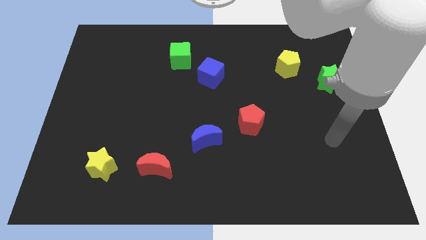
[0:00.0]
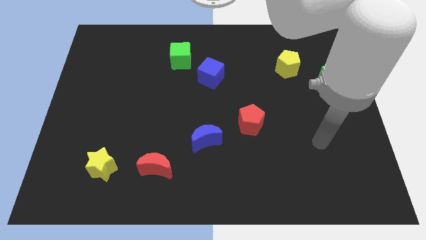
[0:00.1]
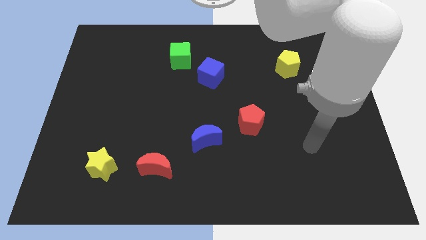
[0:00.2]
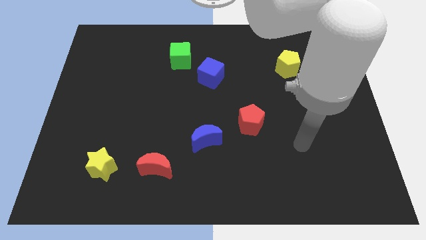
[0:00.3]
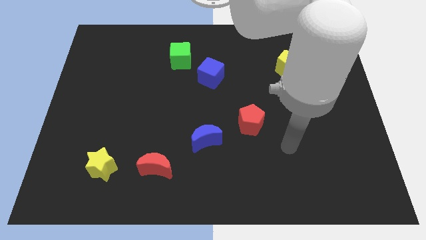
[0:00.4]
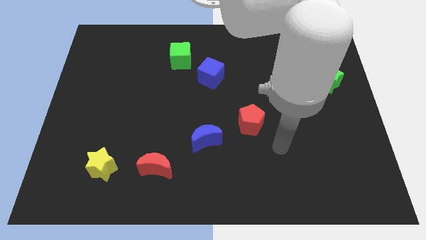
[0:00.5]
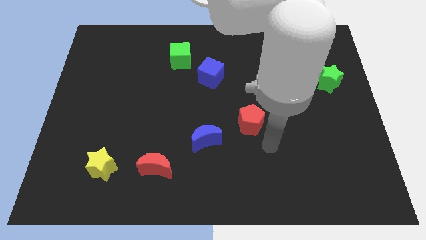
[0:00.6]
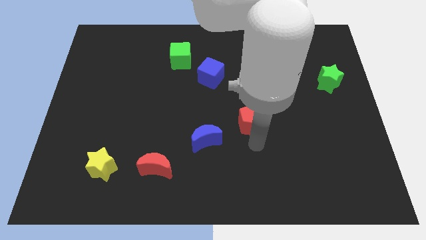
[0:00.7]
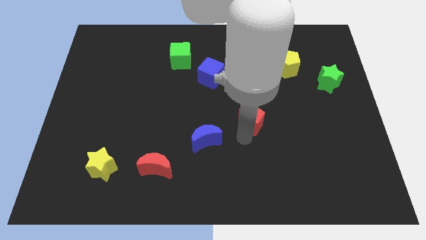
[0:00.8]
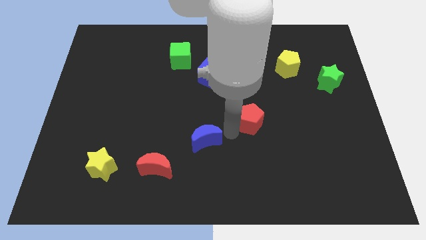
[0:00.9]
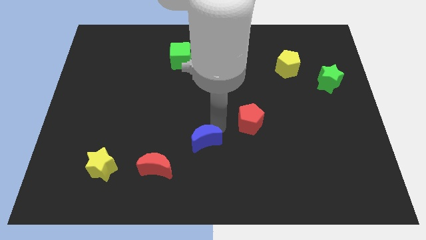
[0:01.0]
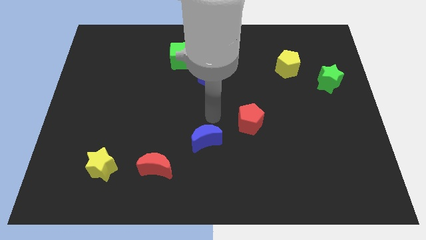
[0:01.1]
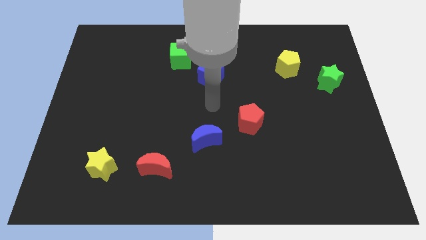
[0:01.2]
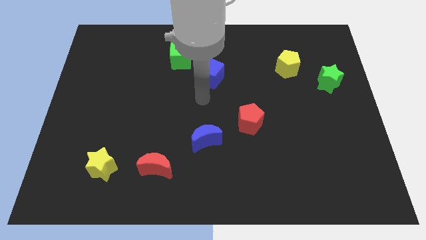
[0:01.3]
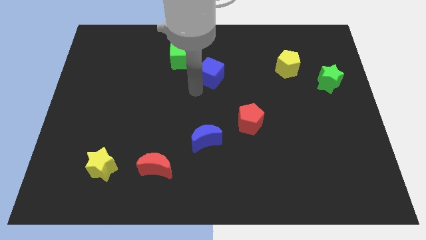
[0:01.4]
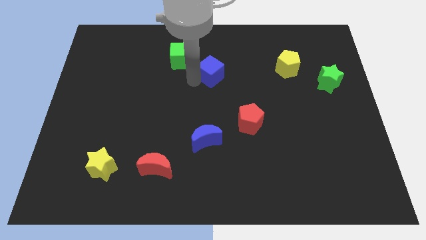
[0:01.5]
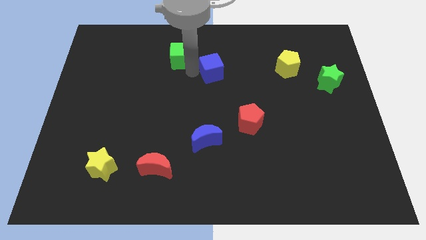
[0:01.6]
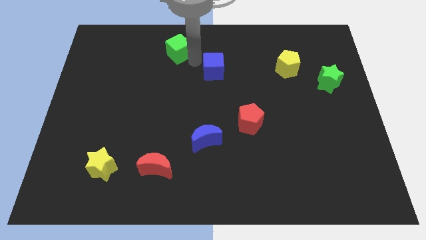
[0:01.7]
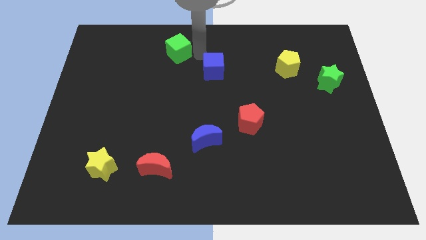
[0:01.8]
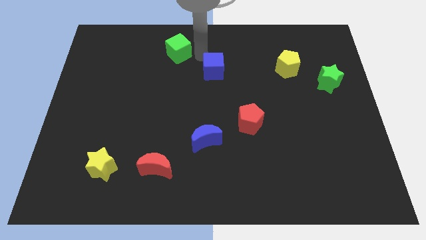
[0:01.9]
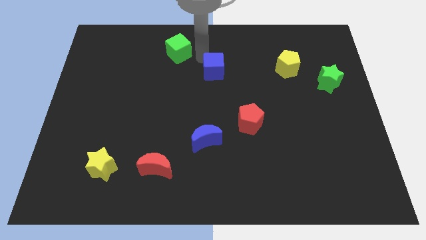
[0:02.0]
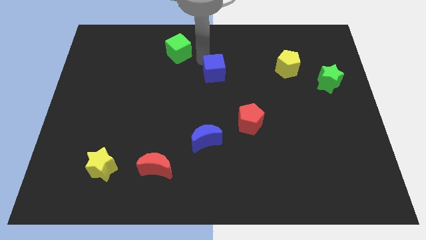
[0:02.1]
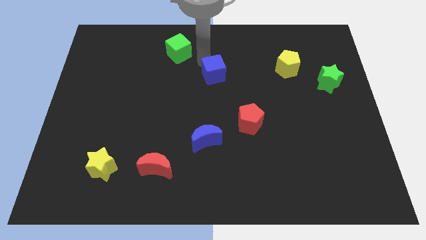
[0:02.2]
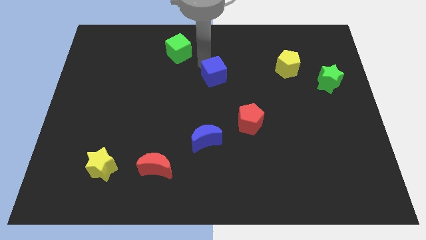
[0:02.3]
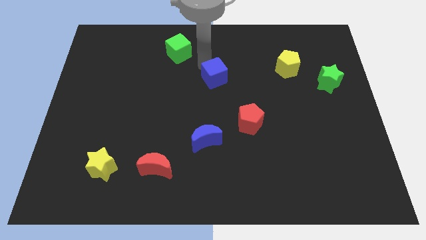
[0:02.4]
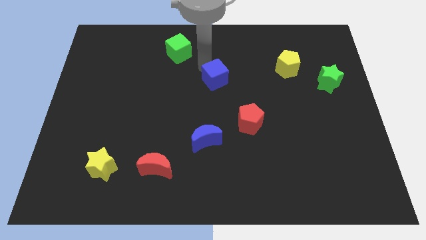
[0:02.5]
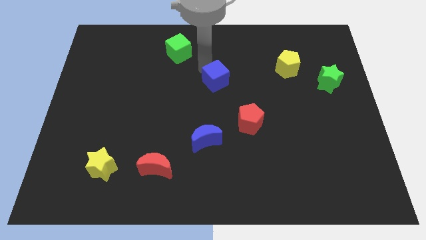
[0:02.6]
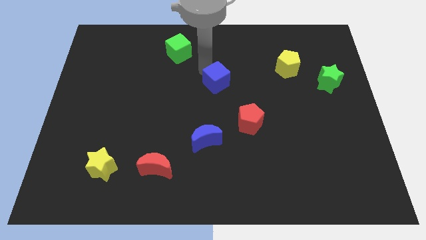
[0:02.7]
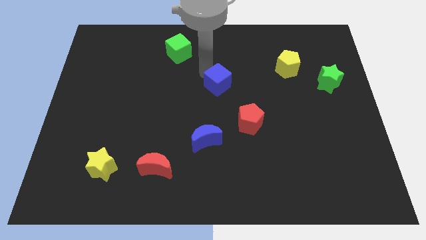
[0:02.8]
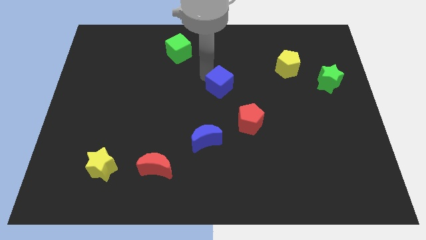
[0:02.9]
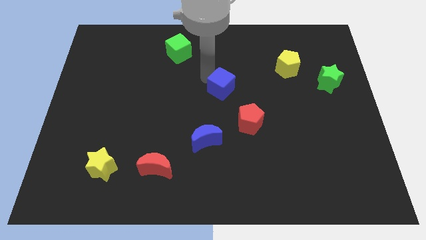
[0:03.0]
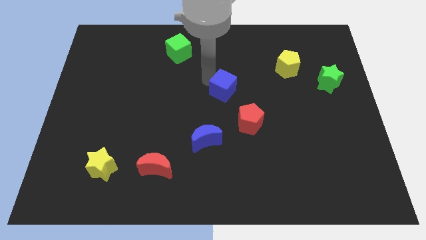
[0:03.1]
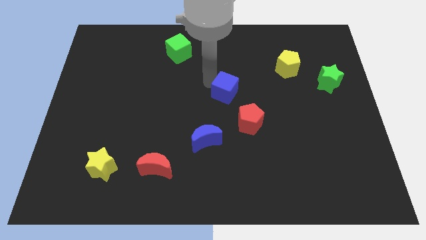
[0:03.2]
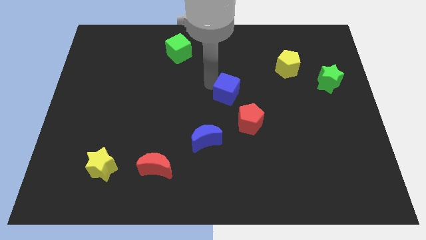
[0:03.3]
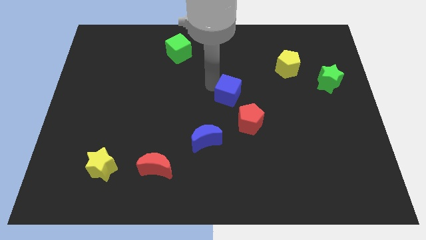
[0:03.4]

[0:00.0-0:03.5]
move the blue cube slightly downwards and then to the right

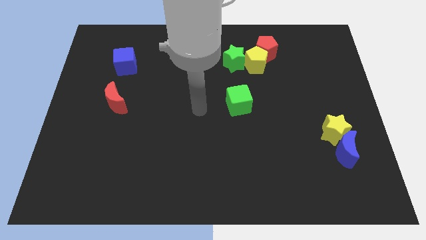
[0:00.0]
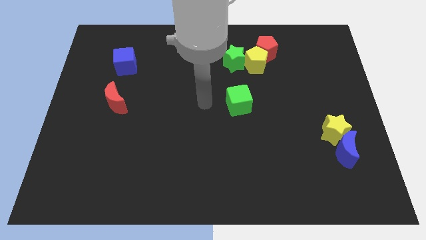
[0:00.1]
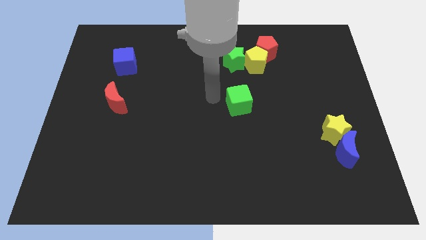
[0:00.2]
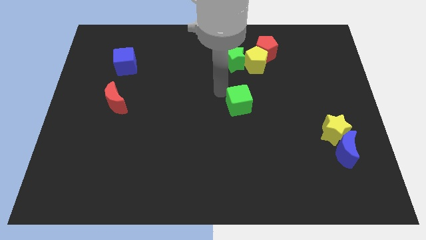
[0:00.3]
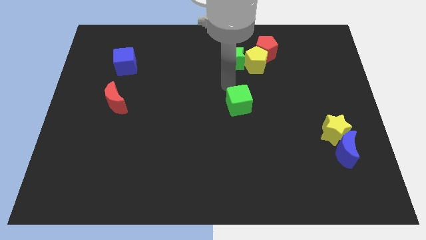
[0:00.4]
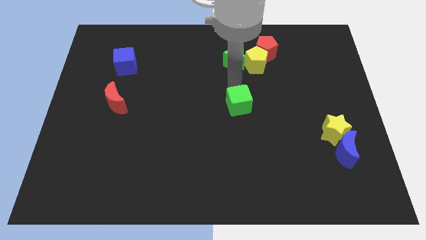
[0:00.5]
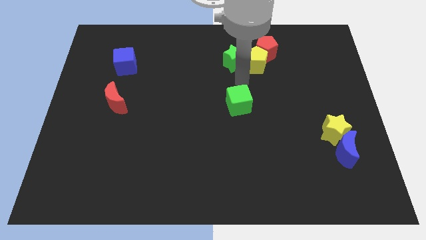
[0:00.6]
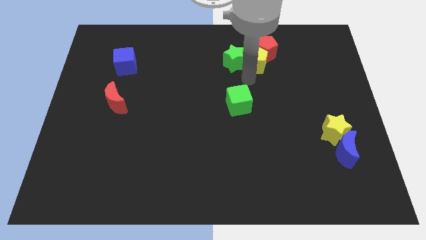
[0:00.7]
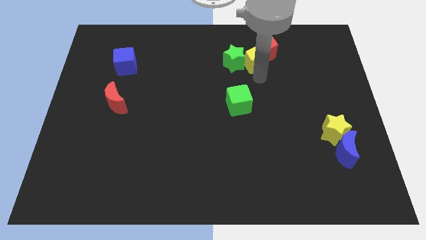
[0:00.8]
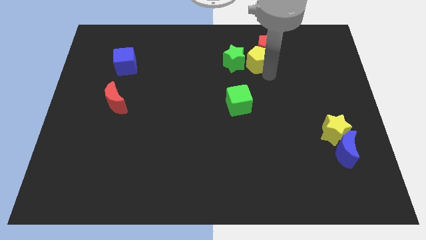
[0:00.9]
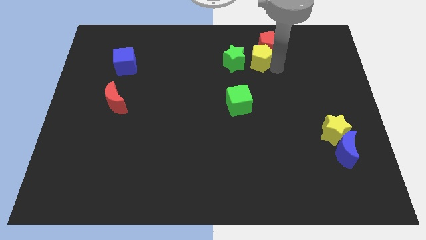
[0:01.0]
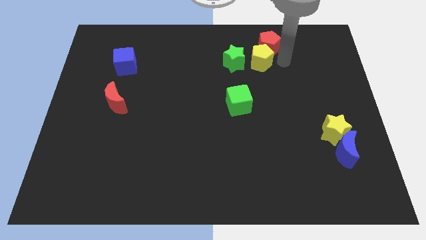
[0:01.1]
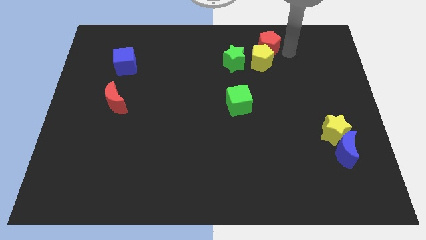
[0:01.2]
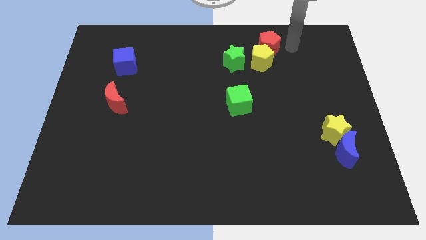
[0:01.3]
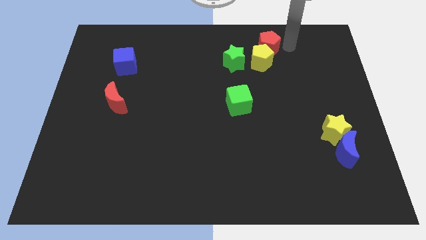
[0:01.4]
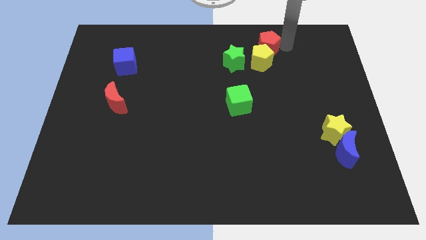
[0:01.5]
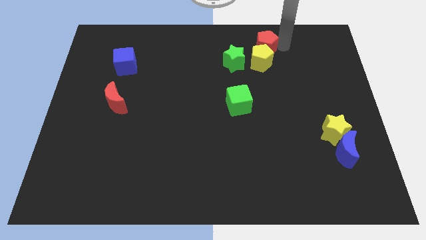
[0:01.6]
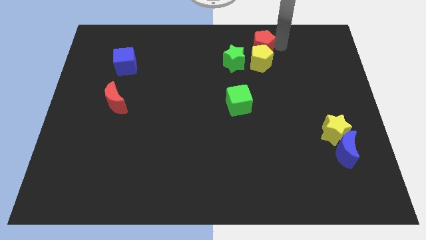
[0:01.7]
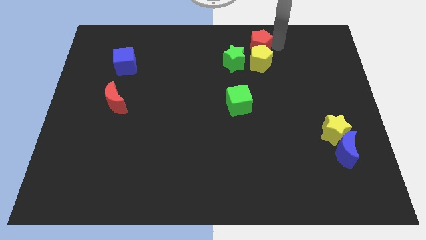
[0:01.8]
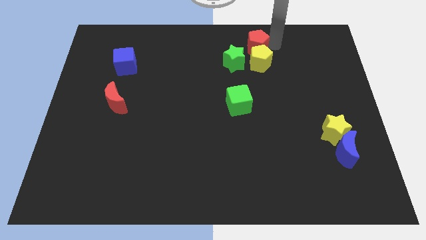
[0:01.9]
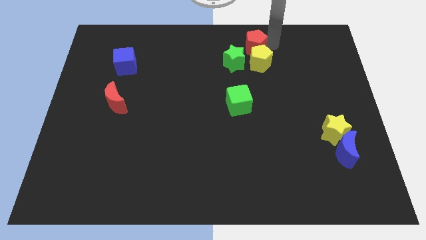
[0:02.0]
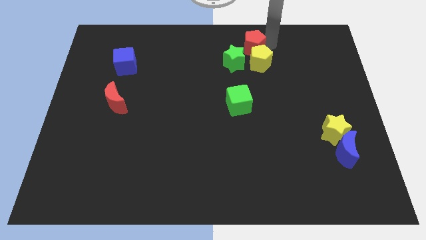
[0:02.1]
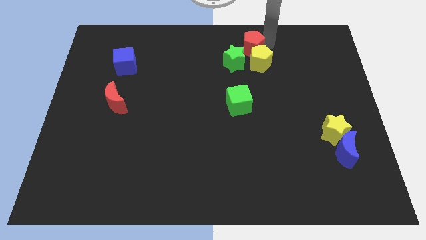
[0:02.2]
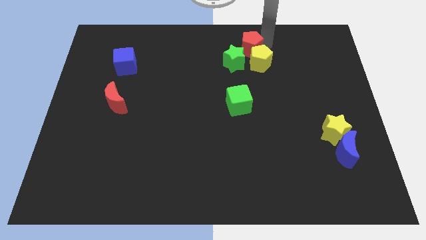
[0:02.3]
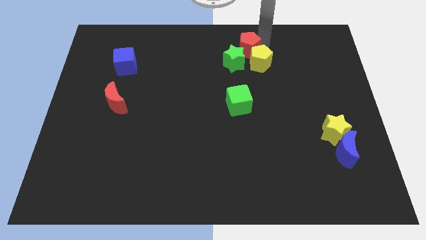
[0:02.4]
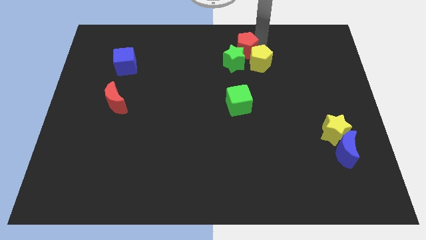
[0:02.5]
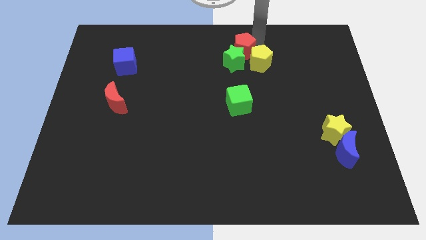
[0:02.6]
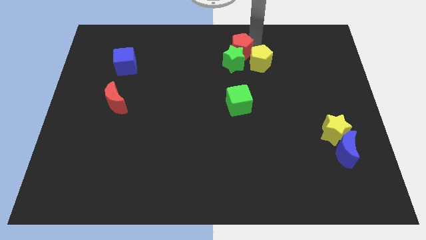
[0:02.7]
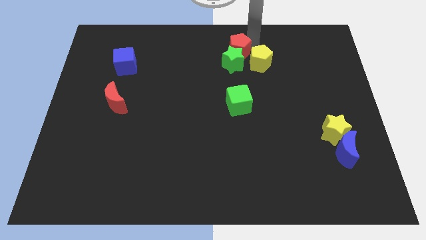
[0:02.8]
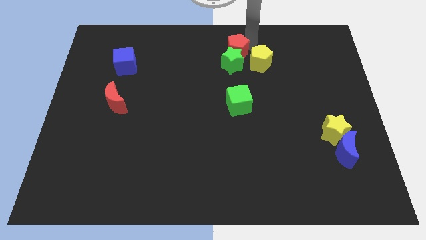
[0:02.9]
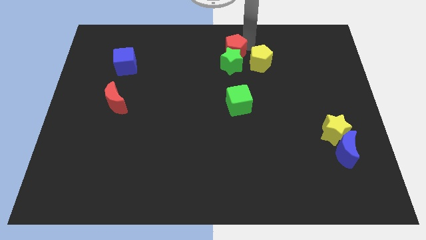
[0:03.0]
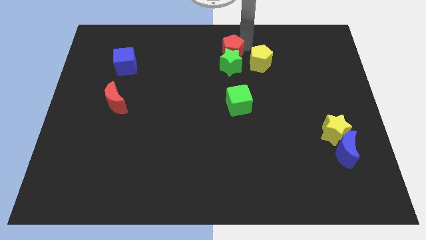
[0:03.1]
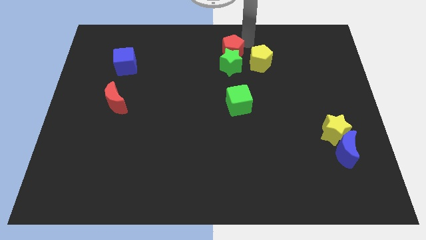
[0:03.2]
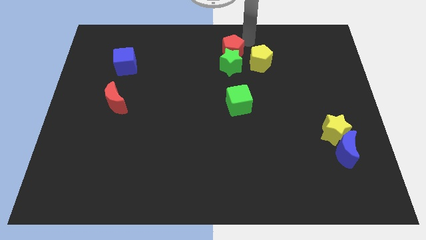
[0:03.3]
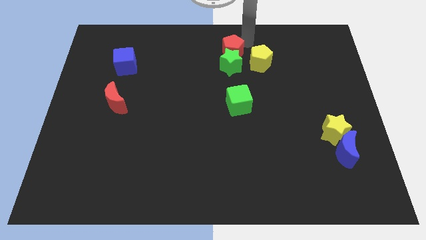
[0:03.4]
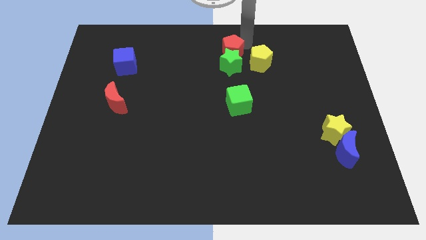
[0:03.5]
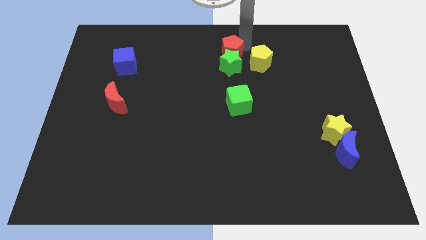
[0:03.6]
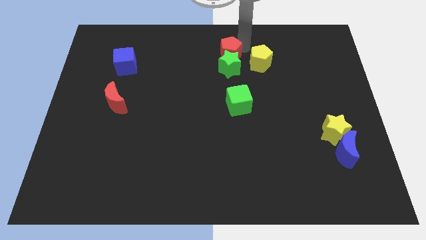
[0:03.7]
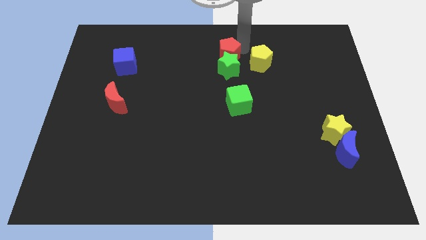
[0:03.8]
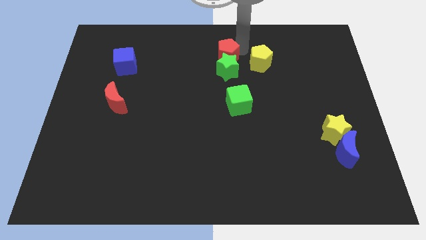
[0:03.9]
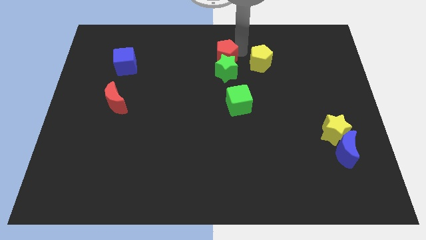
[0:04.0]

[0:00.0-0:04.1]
slightly move the red pentagon down and then to the left

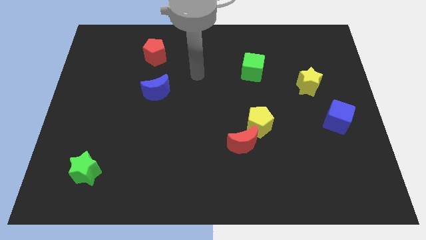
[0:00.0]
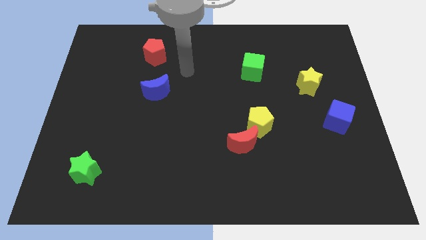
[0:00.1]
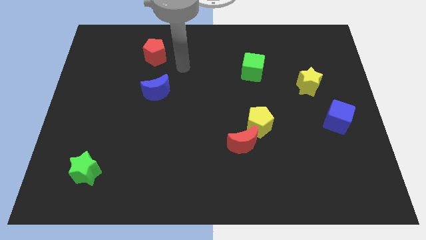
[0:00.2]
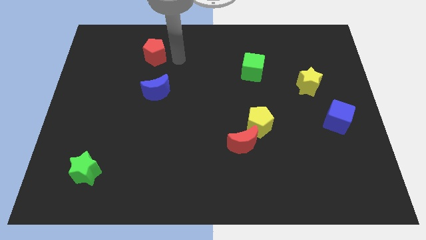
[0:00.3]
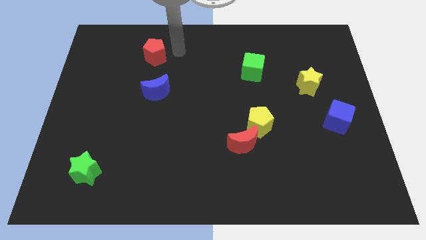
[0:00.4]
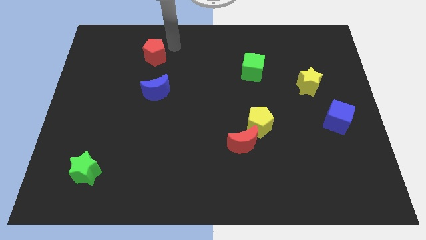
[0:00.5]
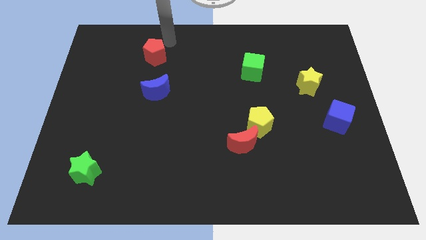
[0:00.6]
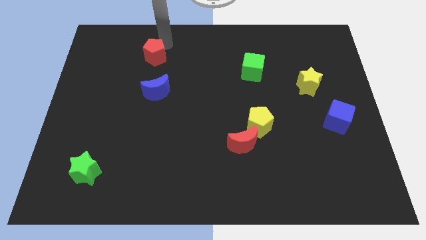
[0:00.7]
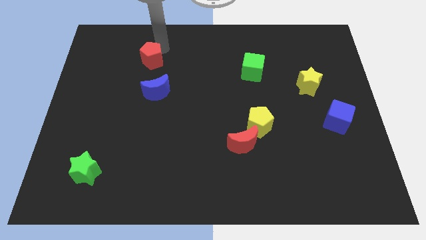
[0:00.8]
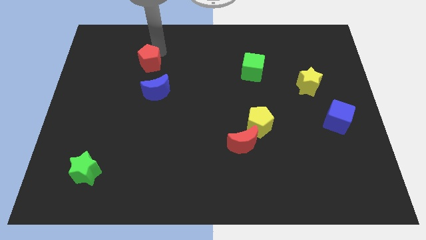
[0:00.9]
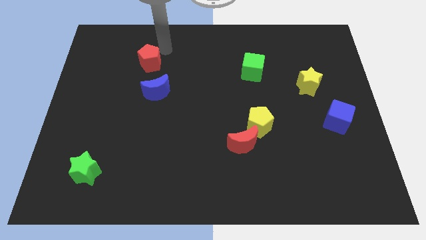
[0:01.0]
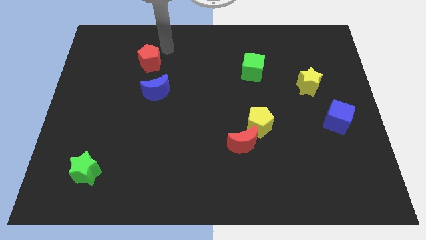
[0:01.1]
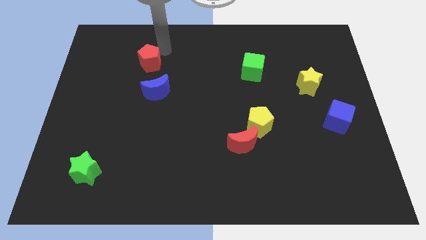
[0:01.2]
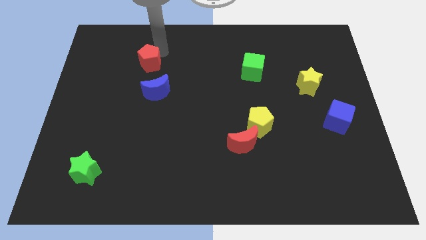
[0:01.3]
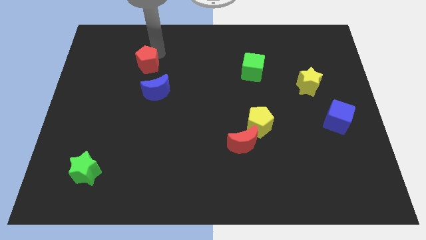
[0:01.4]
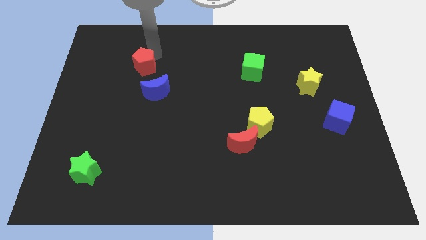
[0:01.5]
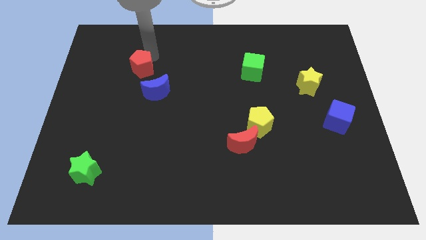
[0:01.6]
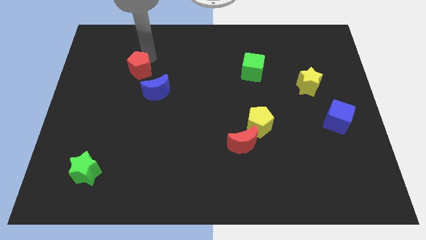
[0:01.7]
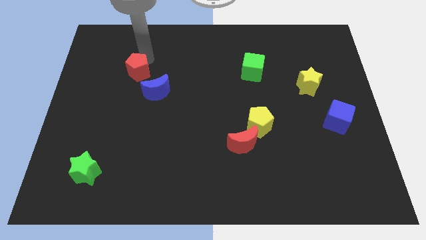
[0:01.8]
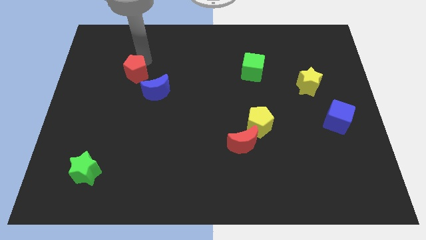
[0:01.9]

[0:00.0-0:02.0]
slightly slide the red pentagon downwards and to the left diagonally
